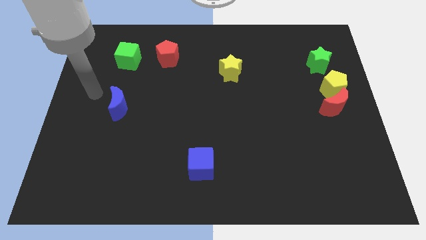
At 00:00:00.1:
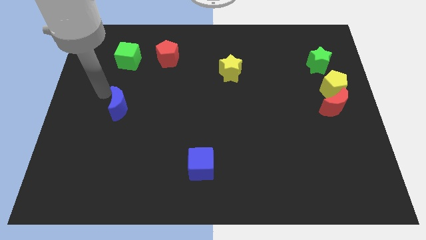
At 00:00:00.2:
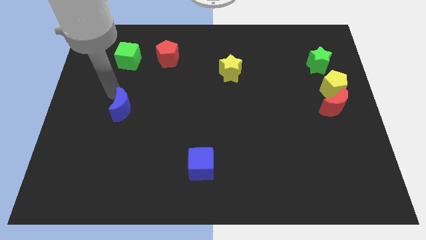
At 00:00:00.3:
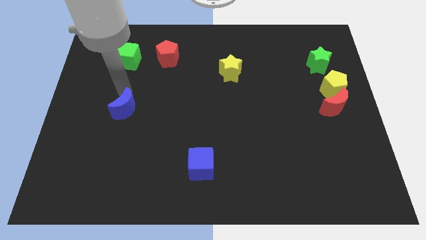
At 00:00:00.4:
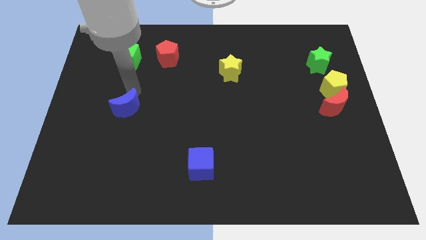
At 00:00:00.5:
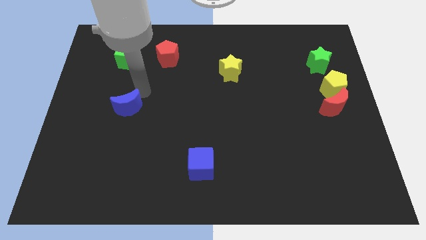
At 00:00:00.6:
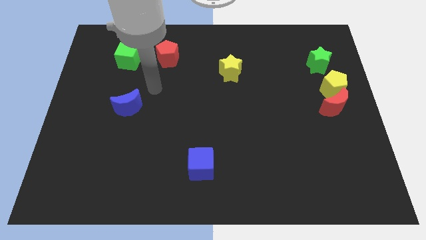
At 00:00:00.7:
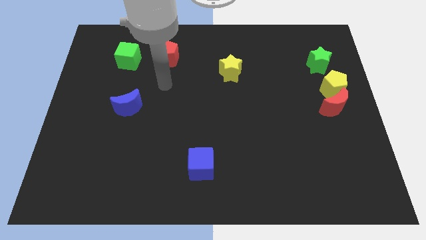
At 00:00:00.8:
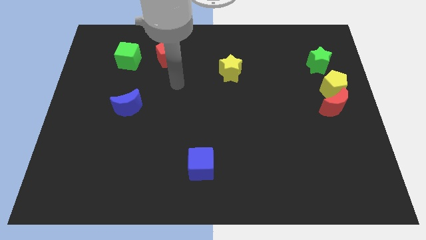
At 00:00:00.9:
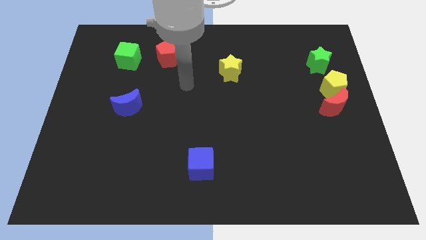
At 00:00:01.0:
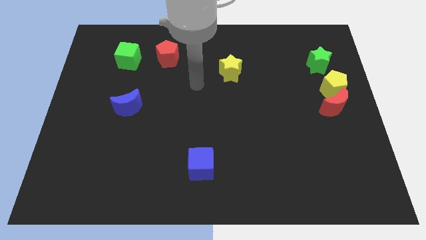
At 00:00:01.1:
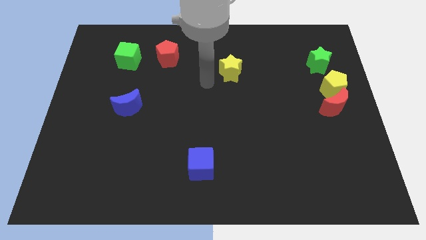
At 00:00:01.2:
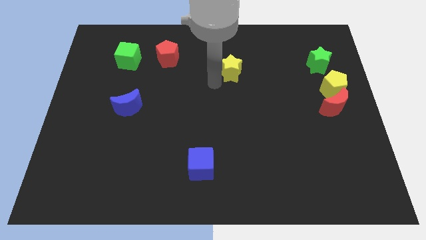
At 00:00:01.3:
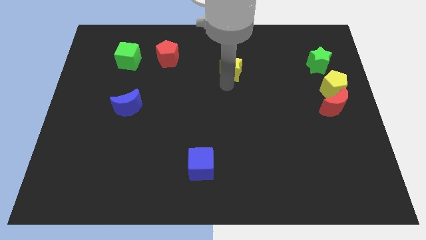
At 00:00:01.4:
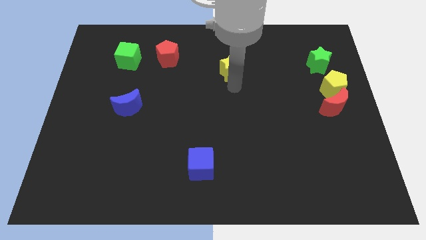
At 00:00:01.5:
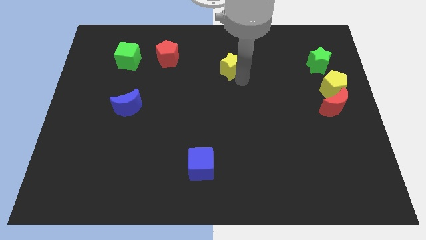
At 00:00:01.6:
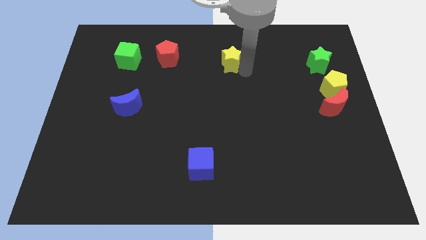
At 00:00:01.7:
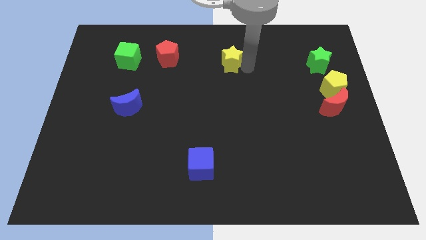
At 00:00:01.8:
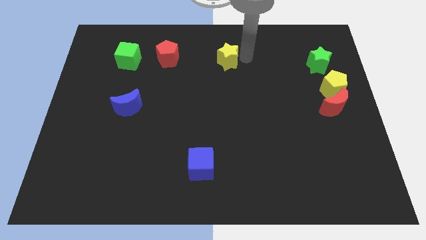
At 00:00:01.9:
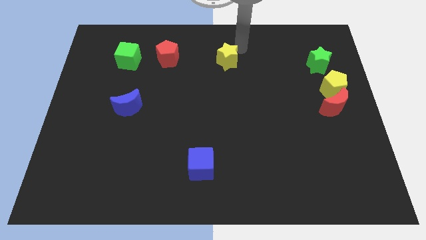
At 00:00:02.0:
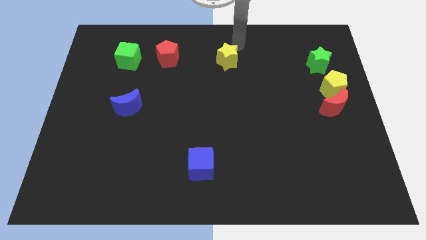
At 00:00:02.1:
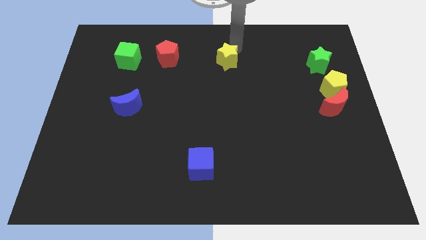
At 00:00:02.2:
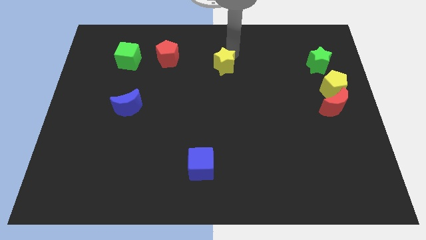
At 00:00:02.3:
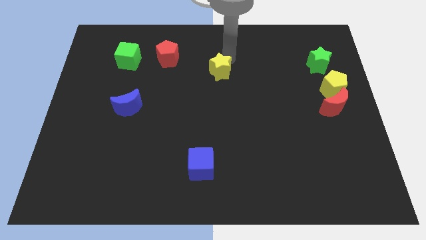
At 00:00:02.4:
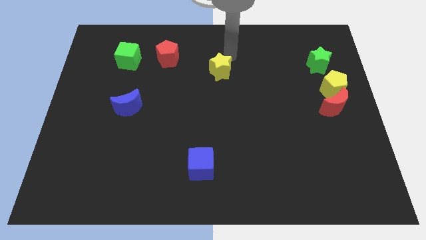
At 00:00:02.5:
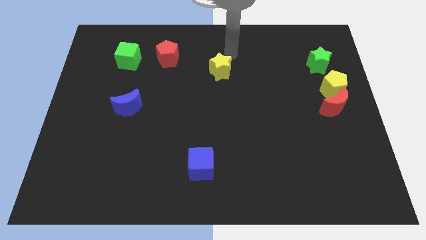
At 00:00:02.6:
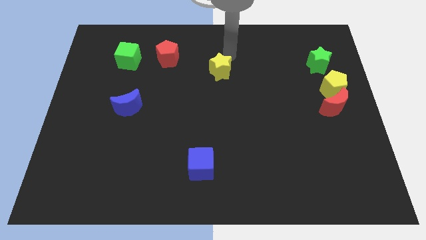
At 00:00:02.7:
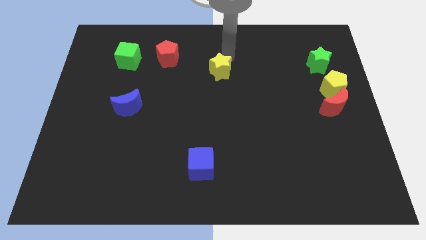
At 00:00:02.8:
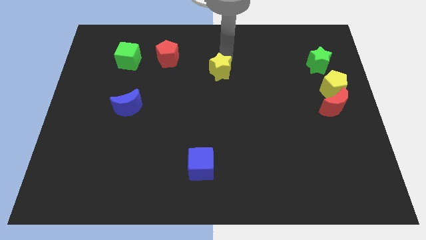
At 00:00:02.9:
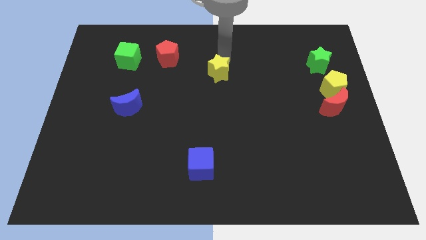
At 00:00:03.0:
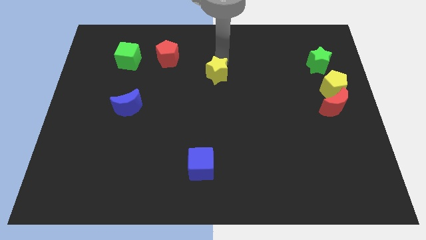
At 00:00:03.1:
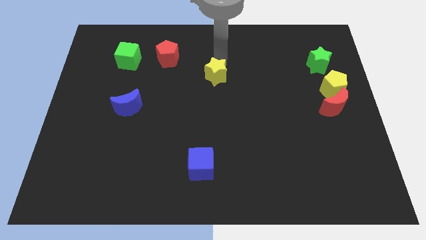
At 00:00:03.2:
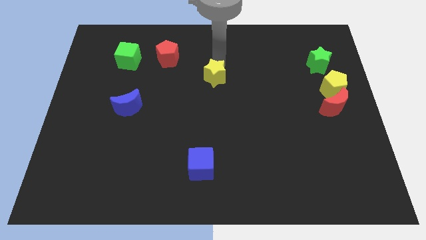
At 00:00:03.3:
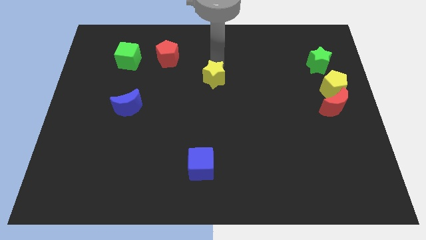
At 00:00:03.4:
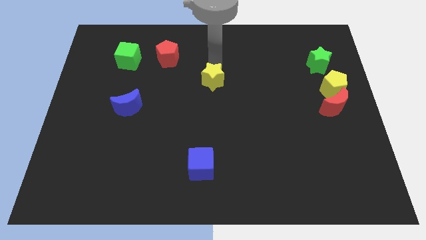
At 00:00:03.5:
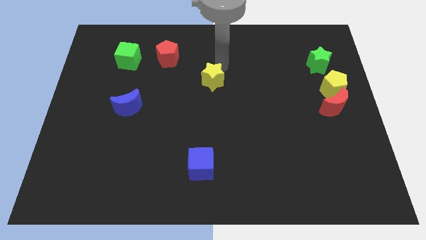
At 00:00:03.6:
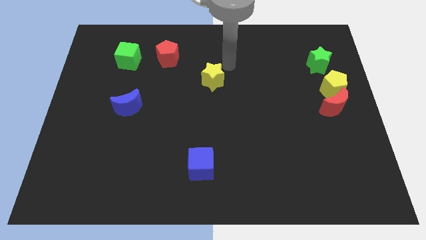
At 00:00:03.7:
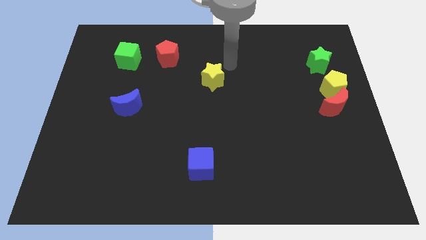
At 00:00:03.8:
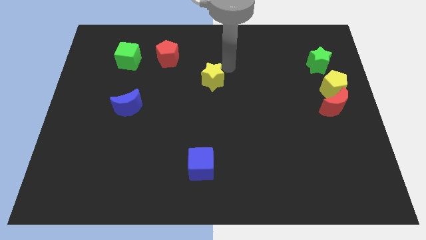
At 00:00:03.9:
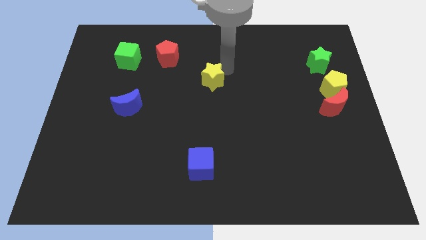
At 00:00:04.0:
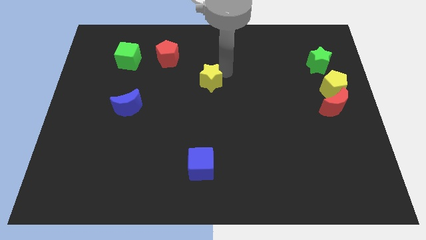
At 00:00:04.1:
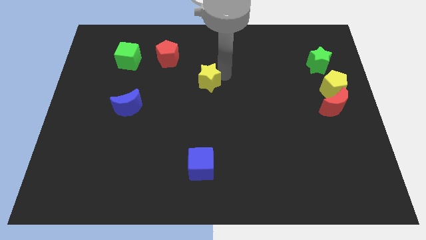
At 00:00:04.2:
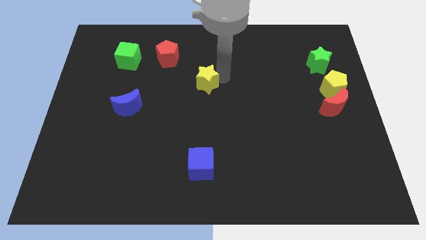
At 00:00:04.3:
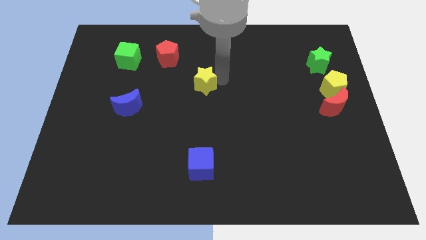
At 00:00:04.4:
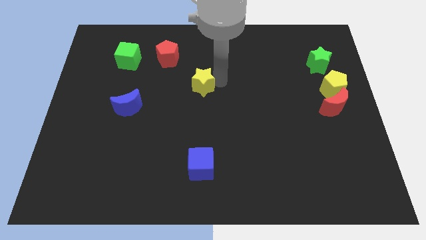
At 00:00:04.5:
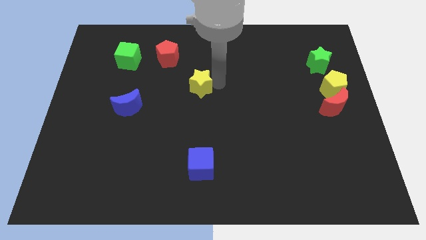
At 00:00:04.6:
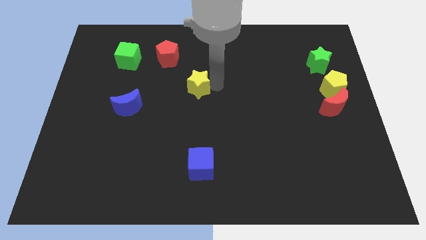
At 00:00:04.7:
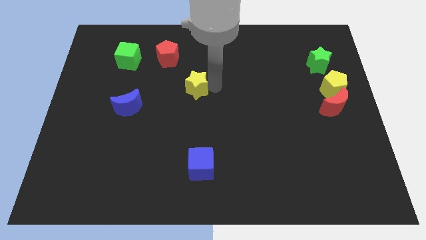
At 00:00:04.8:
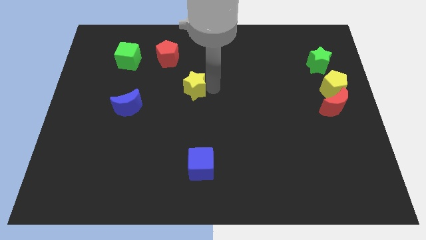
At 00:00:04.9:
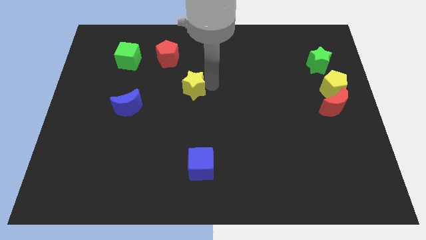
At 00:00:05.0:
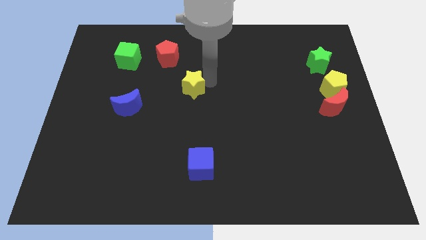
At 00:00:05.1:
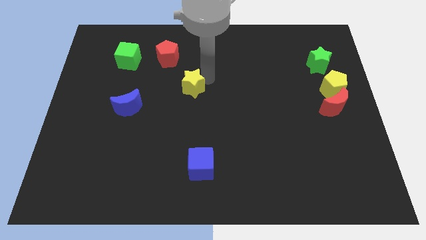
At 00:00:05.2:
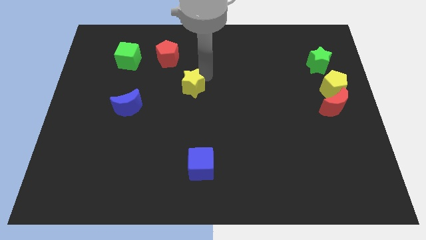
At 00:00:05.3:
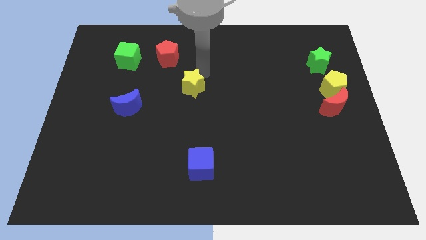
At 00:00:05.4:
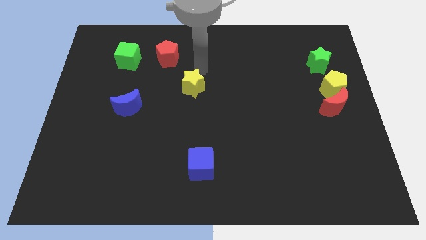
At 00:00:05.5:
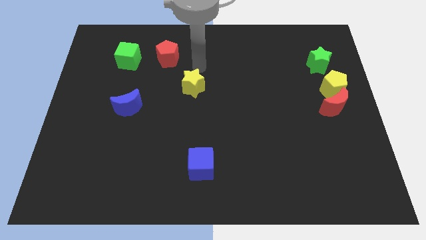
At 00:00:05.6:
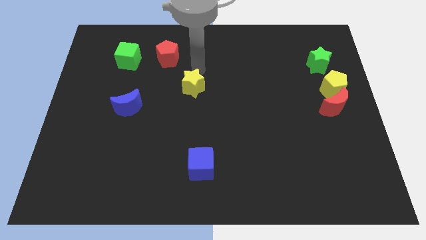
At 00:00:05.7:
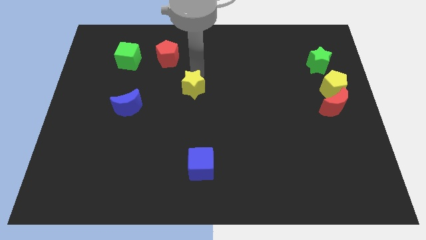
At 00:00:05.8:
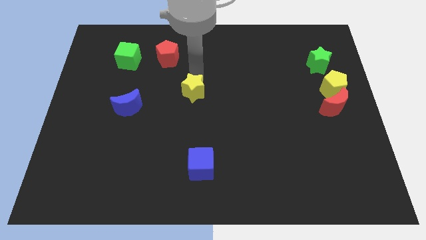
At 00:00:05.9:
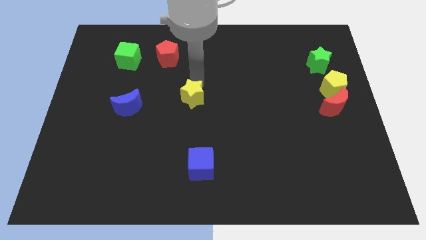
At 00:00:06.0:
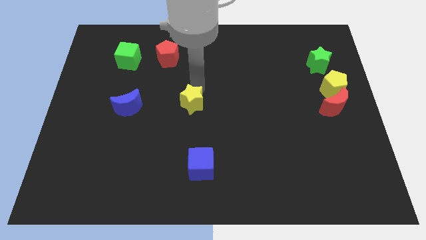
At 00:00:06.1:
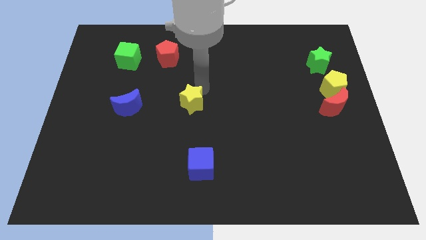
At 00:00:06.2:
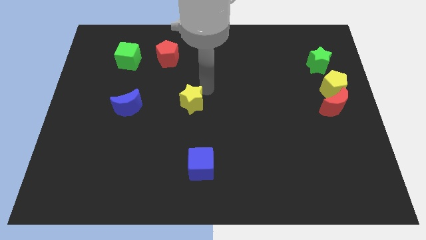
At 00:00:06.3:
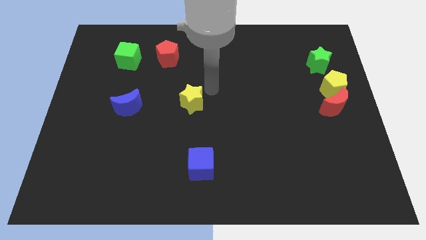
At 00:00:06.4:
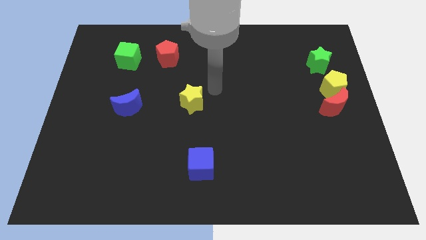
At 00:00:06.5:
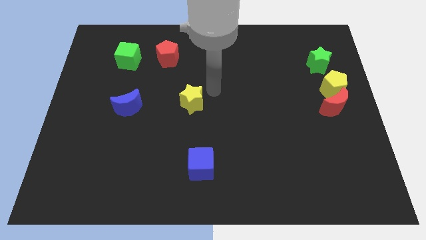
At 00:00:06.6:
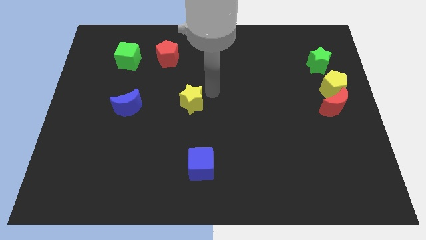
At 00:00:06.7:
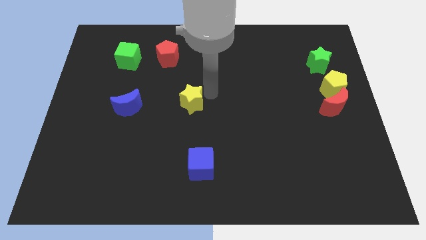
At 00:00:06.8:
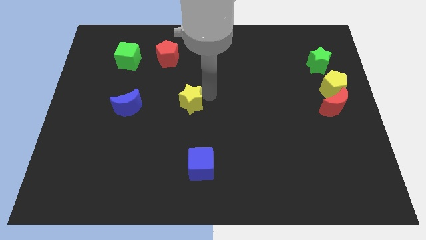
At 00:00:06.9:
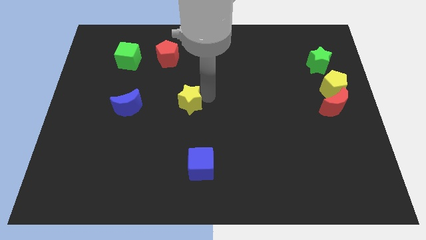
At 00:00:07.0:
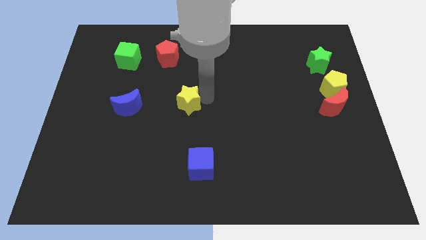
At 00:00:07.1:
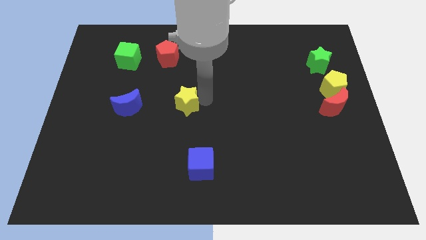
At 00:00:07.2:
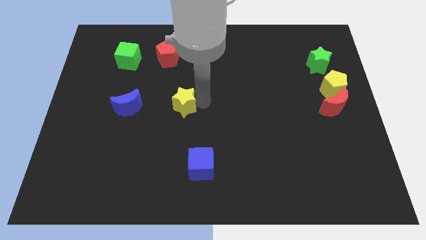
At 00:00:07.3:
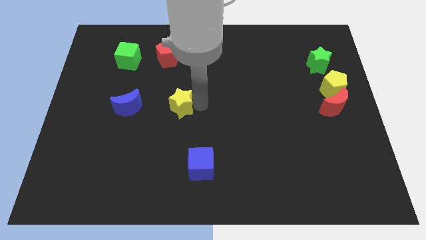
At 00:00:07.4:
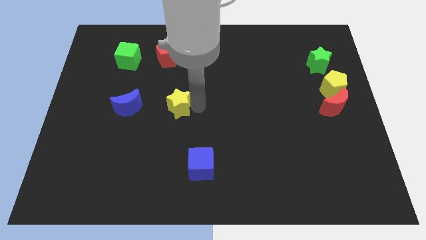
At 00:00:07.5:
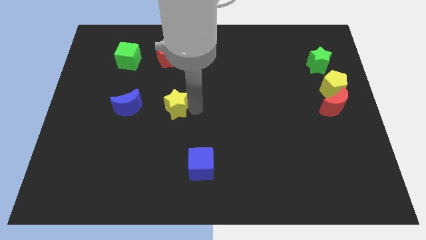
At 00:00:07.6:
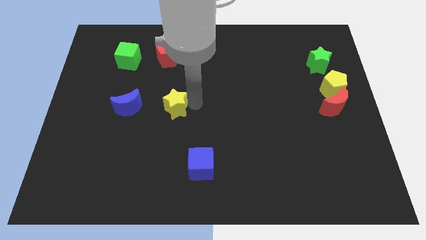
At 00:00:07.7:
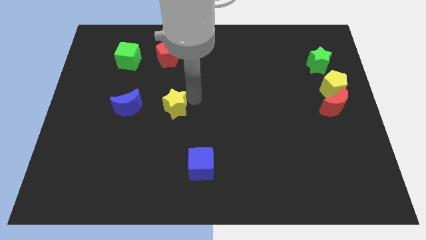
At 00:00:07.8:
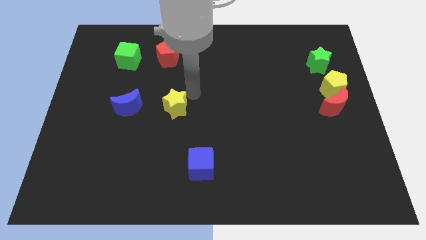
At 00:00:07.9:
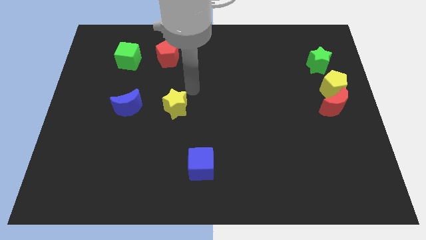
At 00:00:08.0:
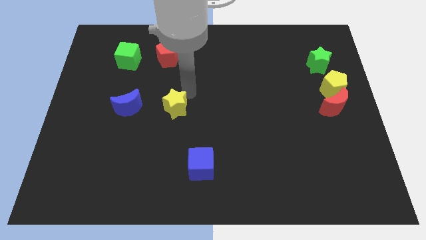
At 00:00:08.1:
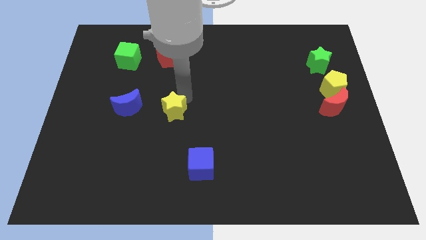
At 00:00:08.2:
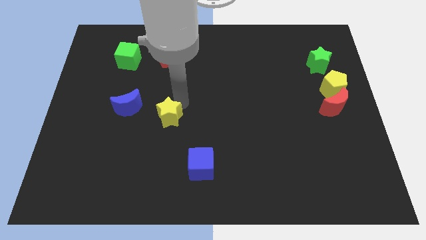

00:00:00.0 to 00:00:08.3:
push the yellow star diagonally downwards and left
